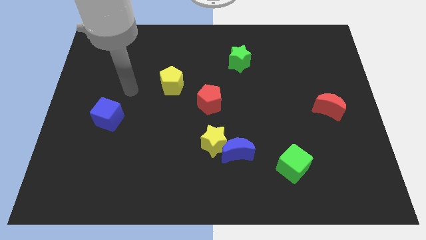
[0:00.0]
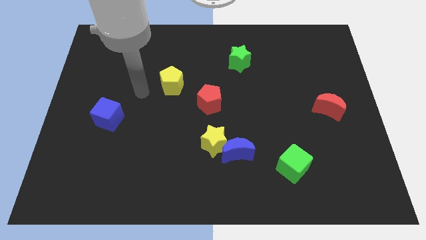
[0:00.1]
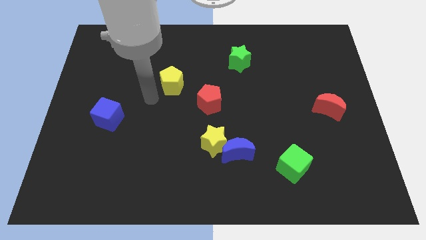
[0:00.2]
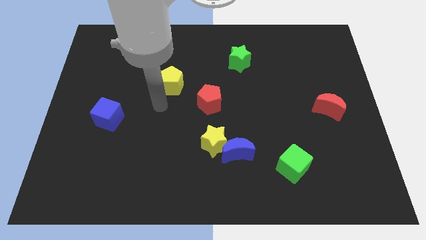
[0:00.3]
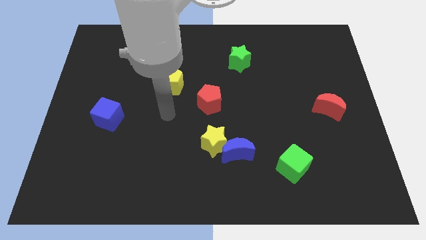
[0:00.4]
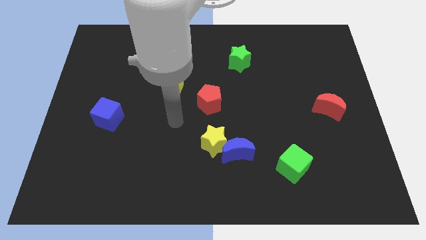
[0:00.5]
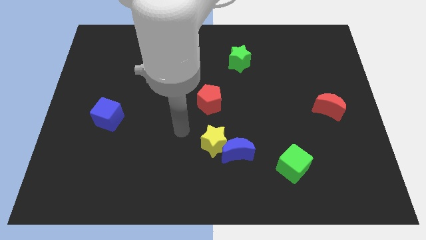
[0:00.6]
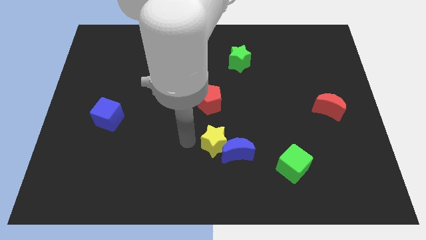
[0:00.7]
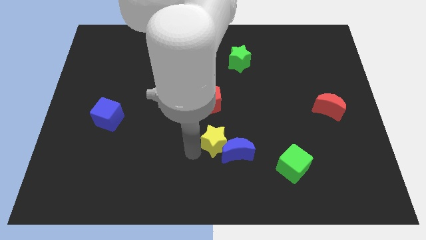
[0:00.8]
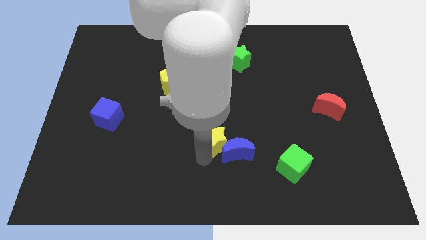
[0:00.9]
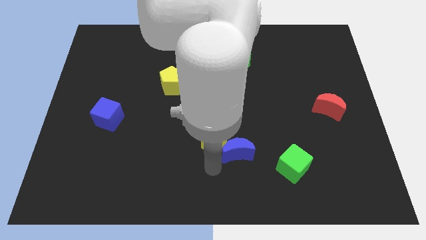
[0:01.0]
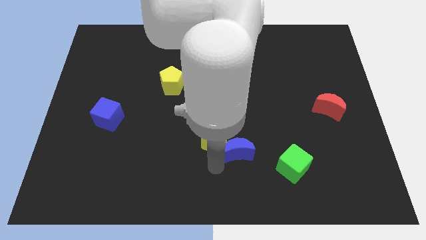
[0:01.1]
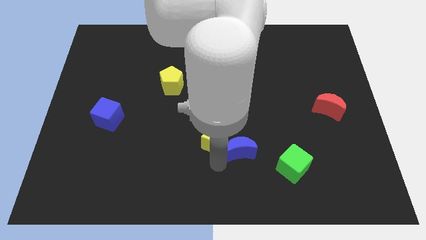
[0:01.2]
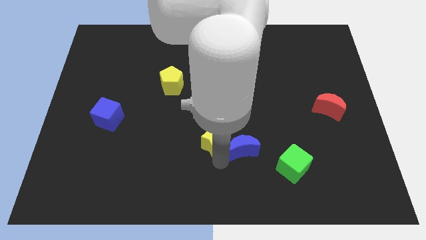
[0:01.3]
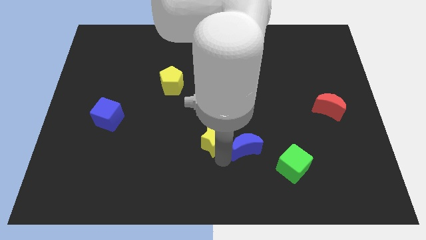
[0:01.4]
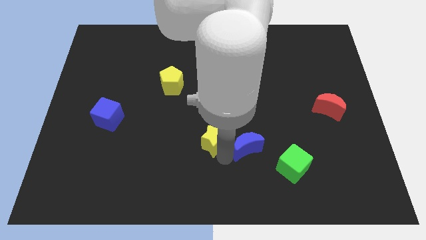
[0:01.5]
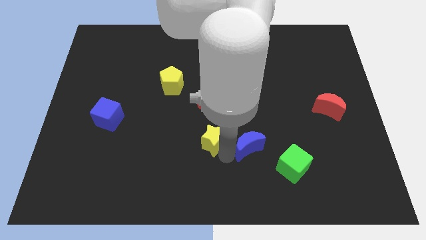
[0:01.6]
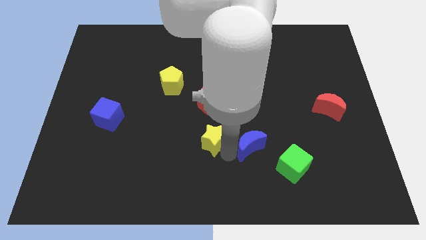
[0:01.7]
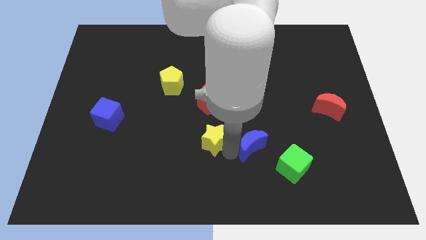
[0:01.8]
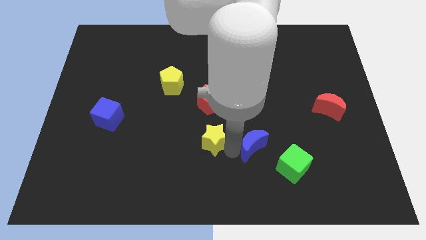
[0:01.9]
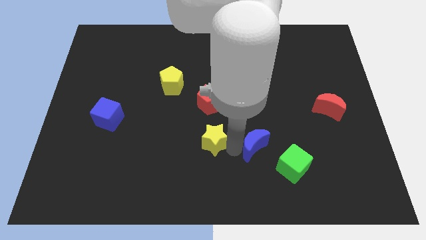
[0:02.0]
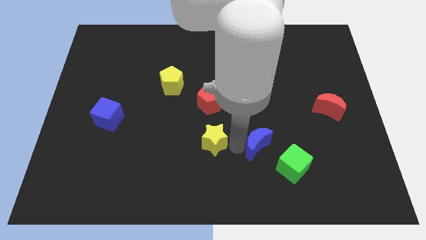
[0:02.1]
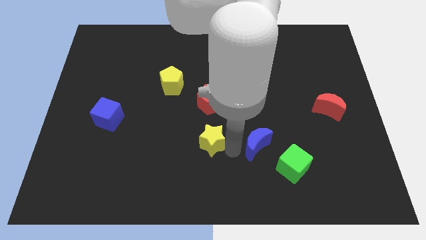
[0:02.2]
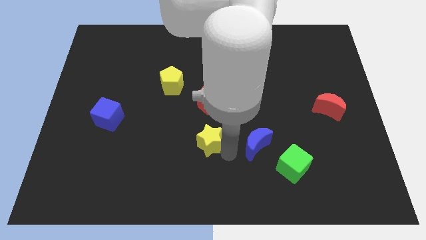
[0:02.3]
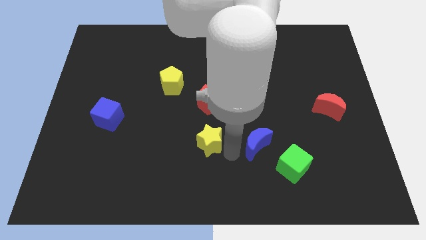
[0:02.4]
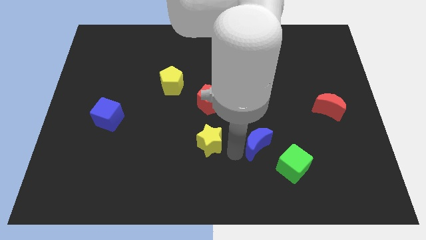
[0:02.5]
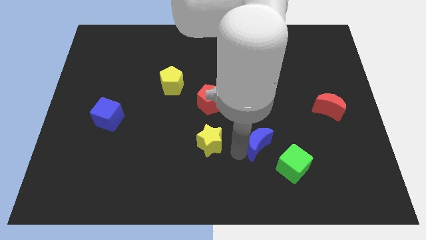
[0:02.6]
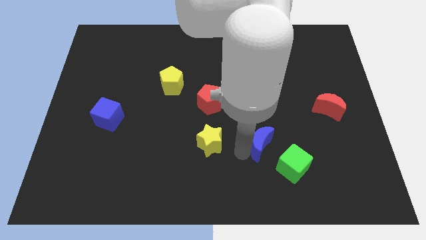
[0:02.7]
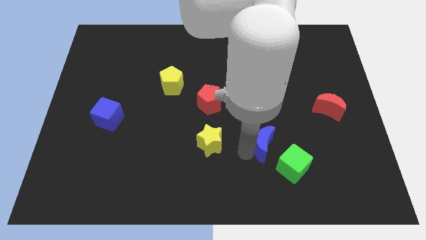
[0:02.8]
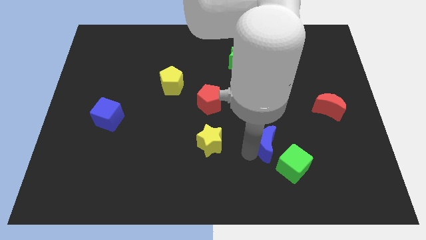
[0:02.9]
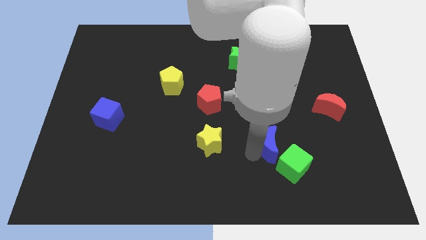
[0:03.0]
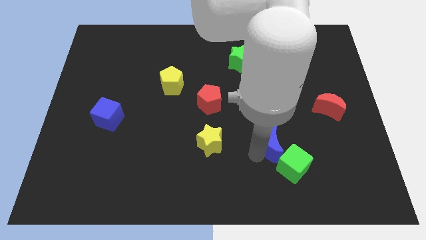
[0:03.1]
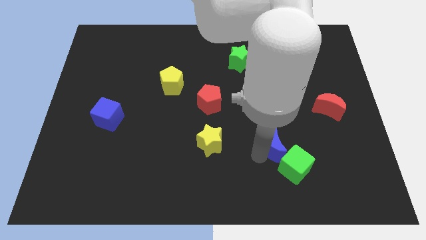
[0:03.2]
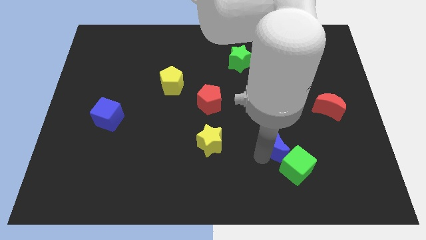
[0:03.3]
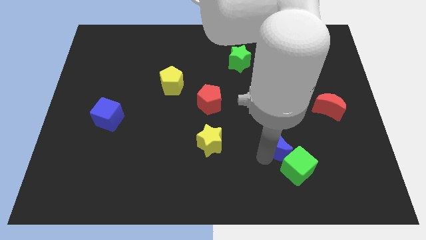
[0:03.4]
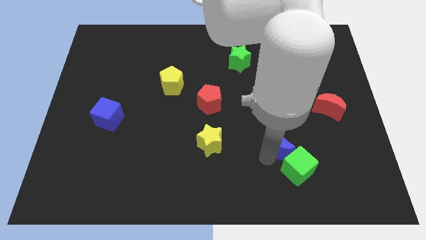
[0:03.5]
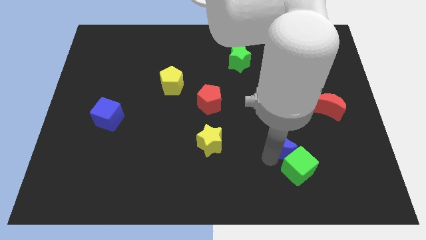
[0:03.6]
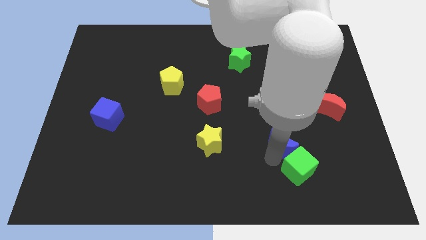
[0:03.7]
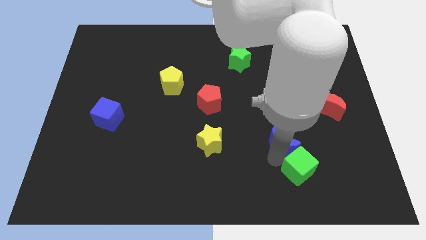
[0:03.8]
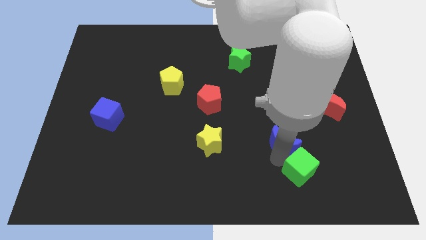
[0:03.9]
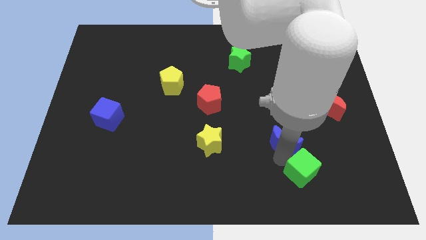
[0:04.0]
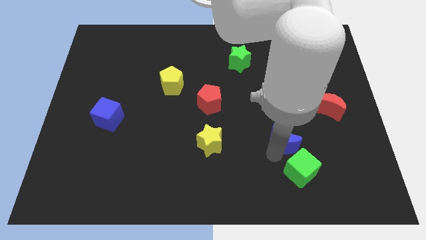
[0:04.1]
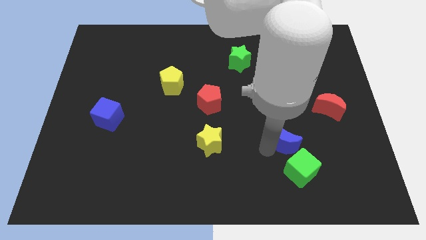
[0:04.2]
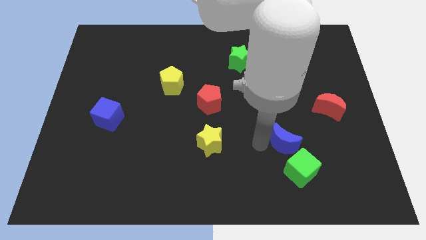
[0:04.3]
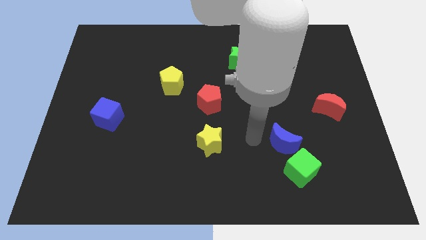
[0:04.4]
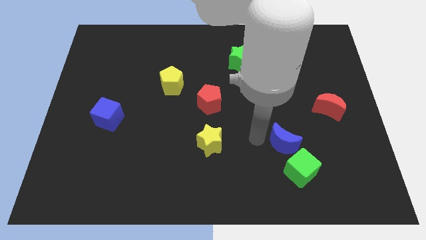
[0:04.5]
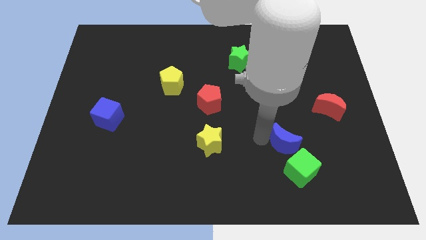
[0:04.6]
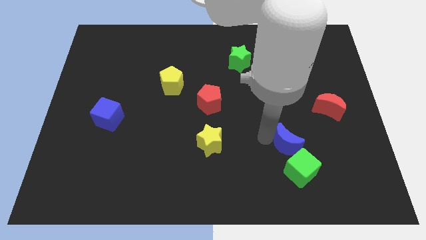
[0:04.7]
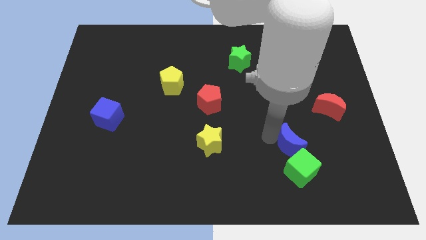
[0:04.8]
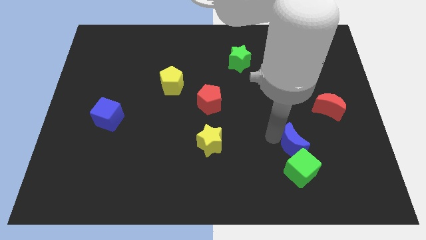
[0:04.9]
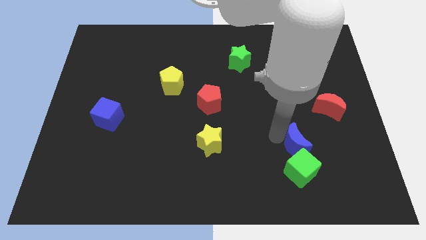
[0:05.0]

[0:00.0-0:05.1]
put the blue moon to the top right side of the green cube

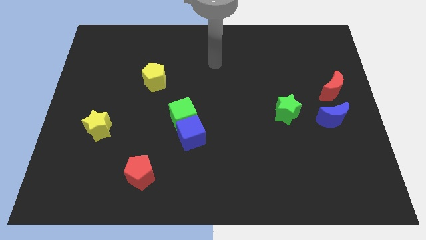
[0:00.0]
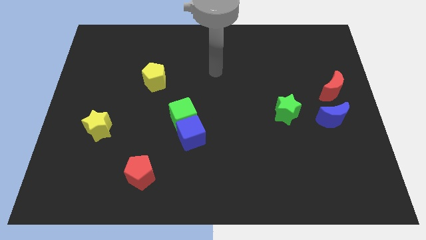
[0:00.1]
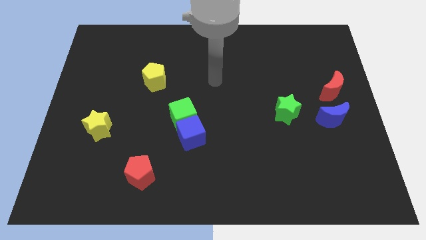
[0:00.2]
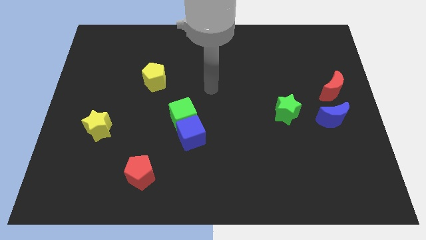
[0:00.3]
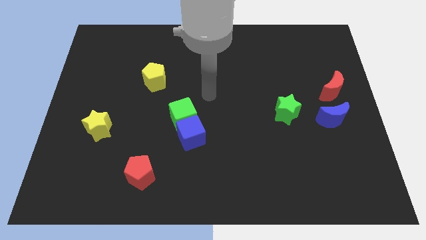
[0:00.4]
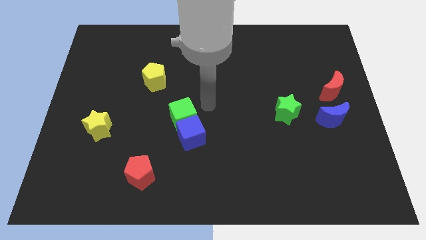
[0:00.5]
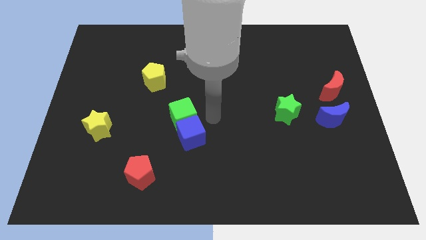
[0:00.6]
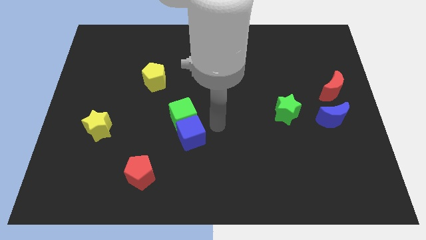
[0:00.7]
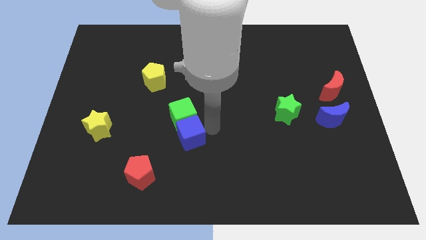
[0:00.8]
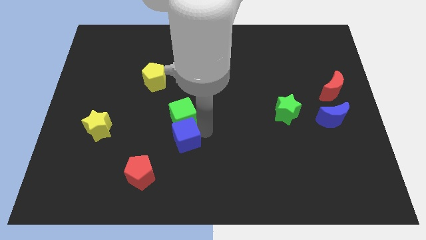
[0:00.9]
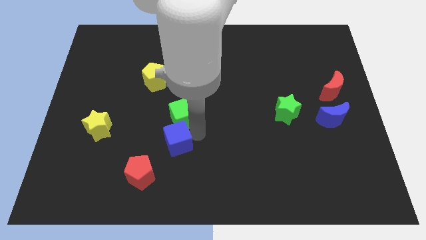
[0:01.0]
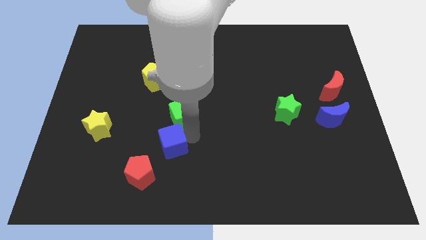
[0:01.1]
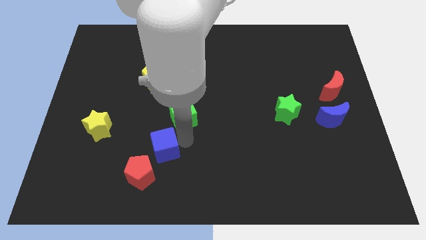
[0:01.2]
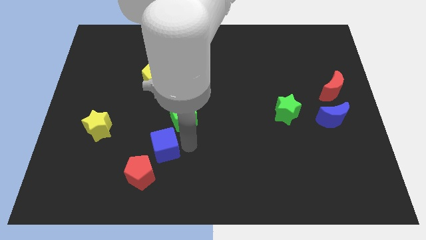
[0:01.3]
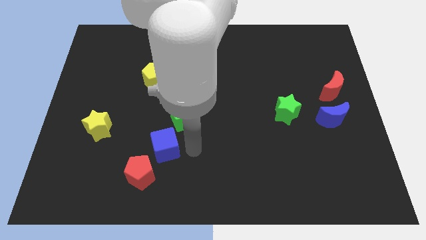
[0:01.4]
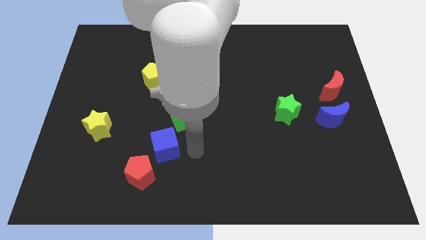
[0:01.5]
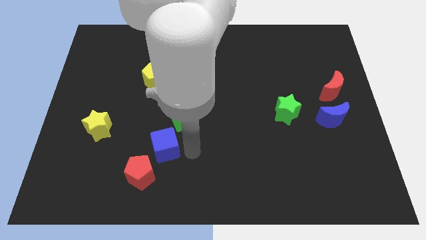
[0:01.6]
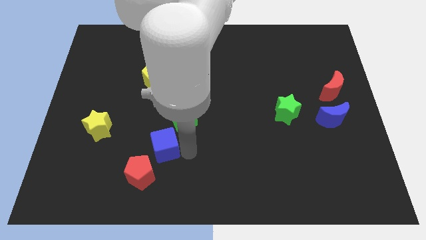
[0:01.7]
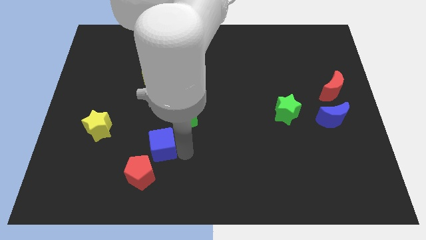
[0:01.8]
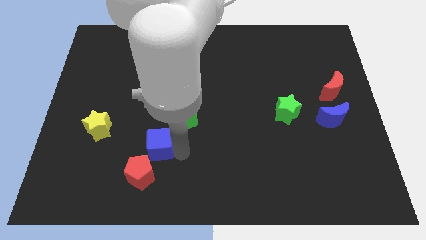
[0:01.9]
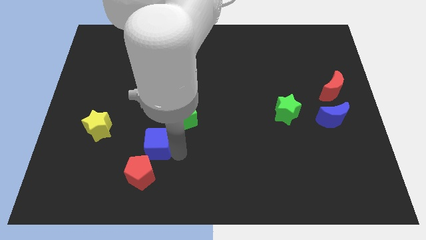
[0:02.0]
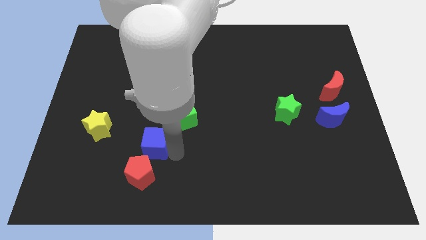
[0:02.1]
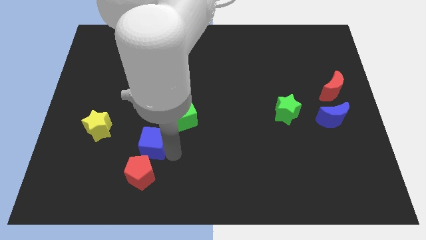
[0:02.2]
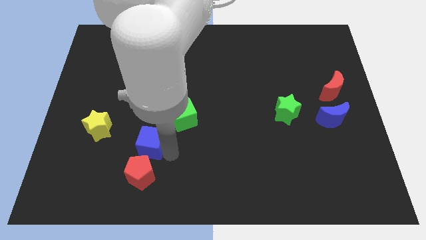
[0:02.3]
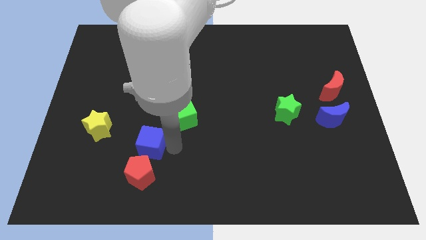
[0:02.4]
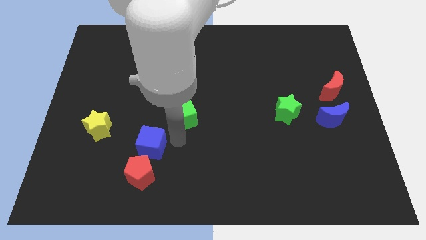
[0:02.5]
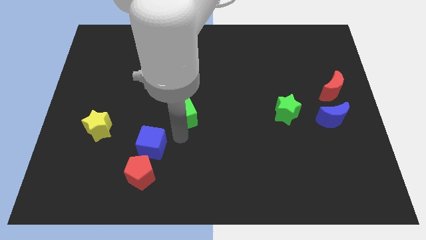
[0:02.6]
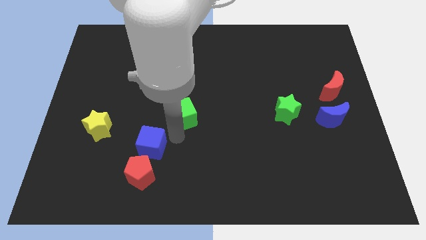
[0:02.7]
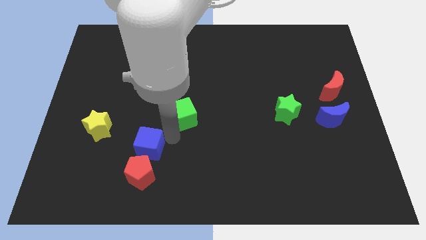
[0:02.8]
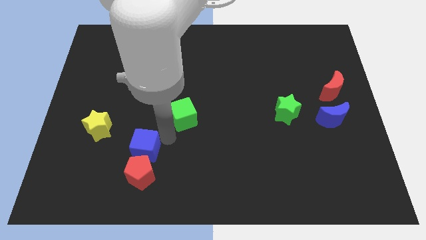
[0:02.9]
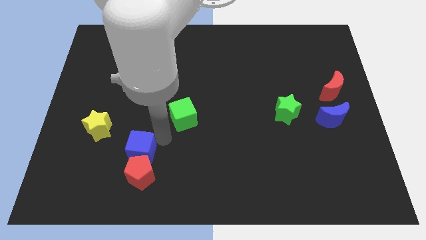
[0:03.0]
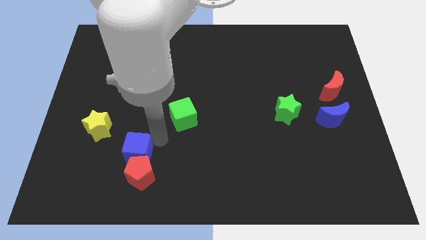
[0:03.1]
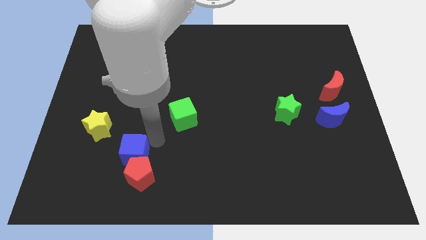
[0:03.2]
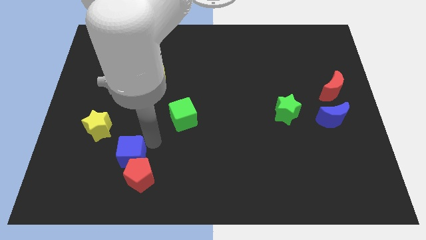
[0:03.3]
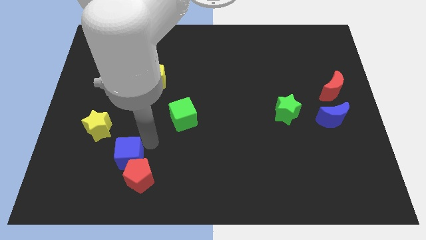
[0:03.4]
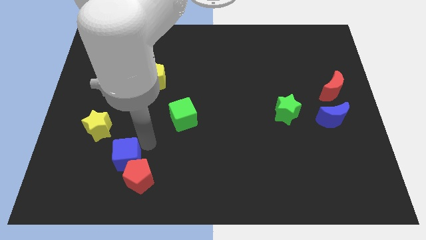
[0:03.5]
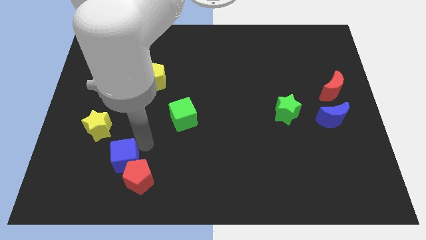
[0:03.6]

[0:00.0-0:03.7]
push the blue cube to the left side of the red pentagon
